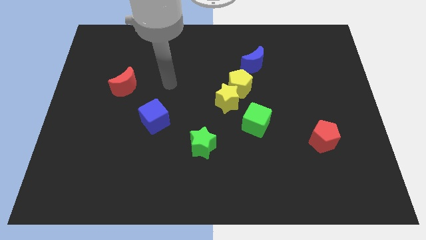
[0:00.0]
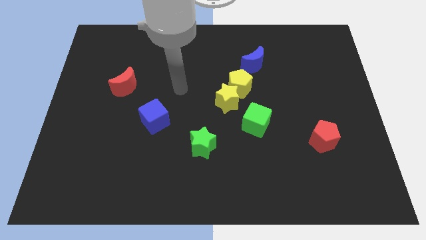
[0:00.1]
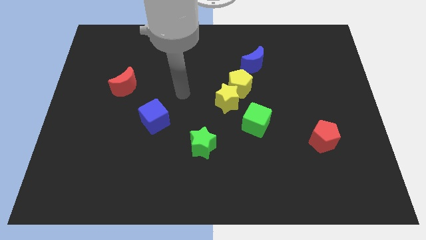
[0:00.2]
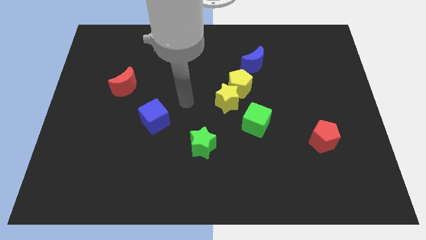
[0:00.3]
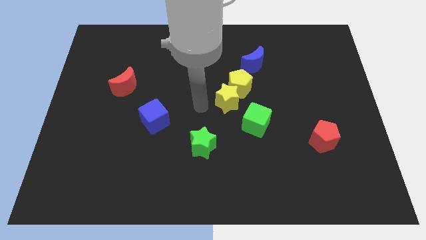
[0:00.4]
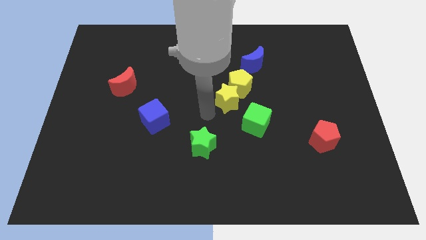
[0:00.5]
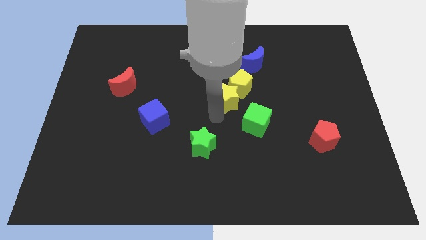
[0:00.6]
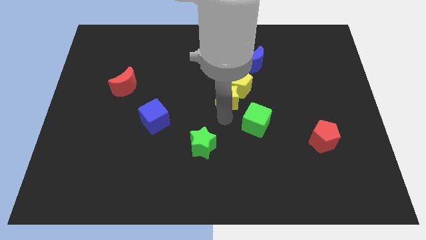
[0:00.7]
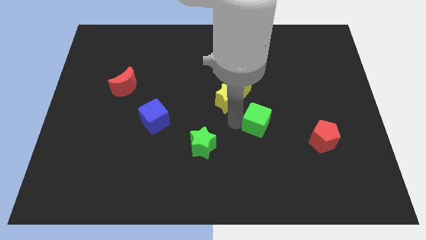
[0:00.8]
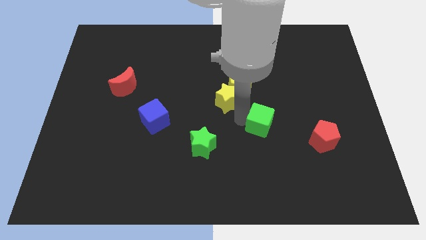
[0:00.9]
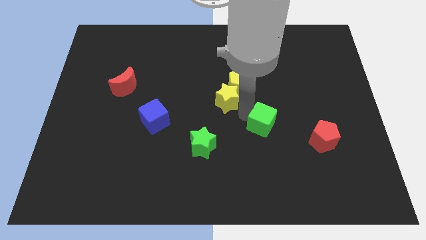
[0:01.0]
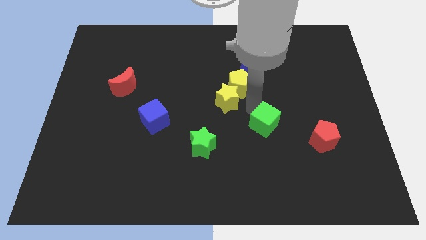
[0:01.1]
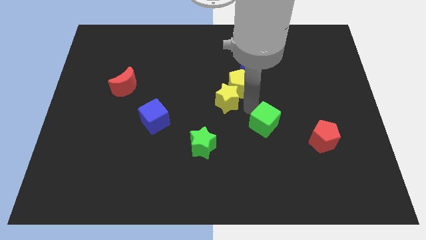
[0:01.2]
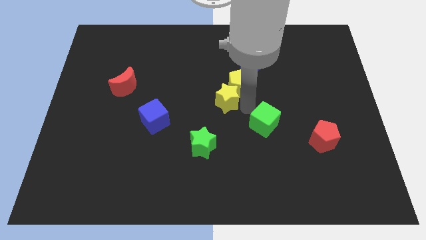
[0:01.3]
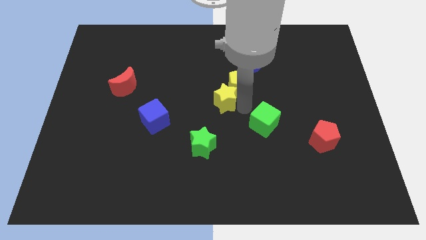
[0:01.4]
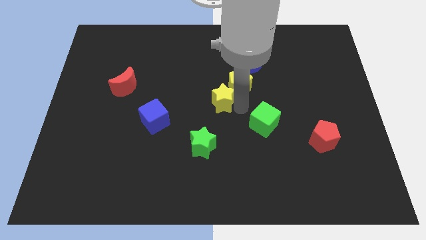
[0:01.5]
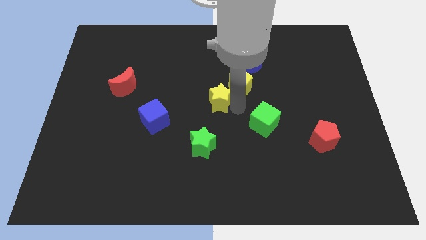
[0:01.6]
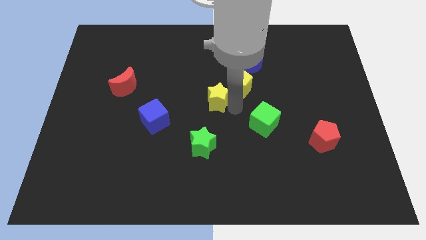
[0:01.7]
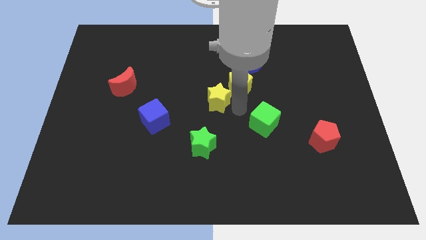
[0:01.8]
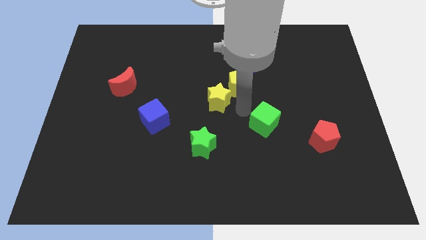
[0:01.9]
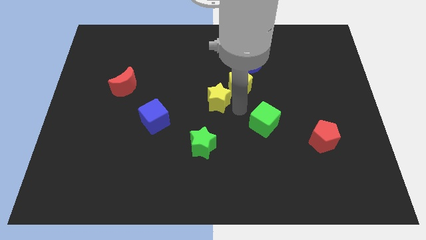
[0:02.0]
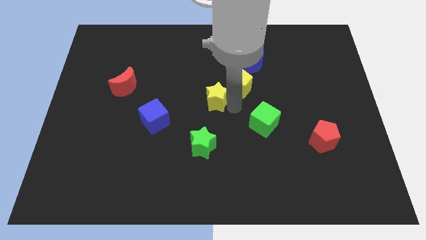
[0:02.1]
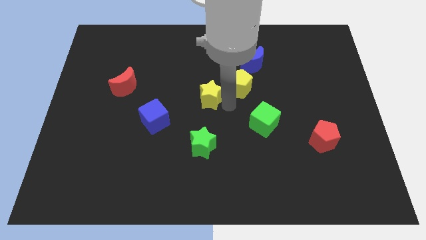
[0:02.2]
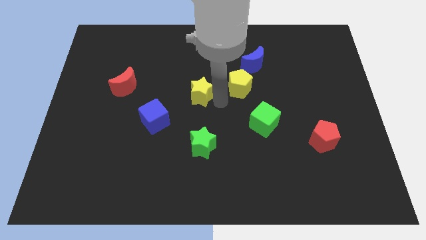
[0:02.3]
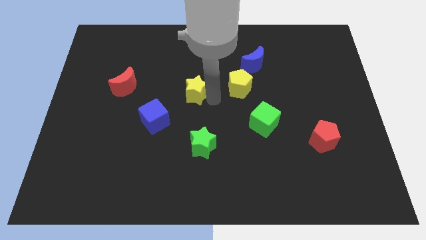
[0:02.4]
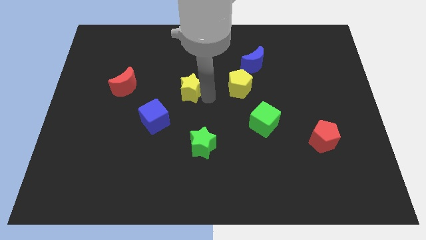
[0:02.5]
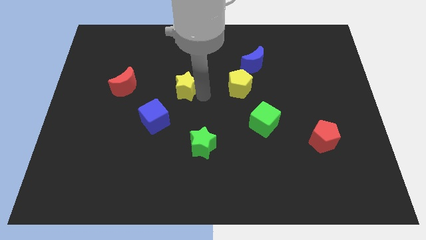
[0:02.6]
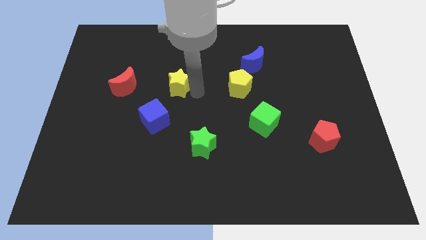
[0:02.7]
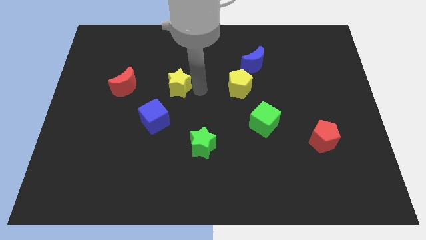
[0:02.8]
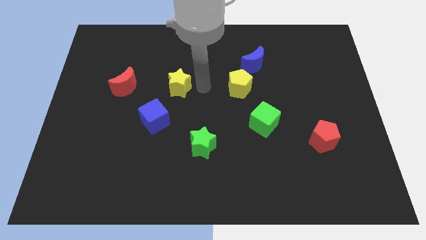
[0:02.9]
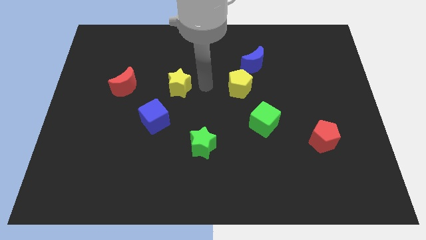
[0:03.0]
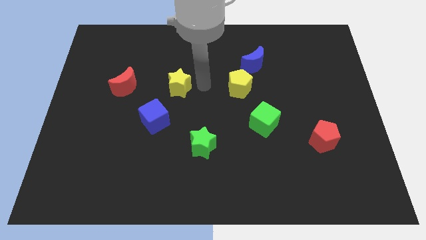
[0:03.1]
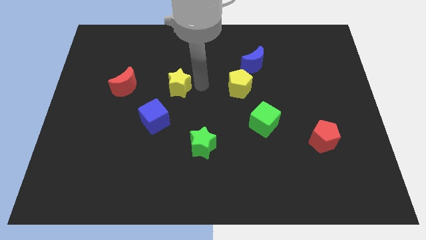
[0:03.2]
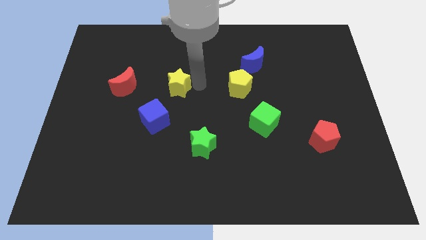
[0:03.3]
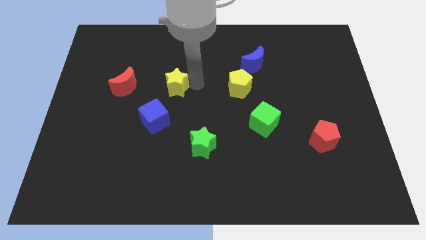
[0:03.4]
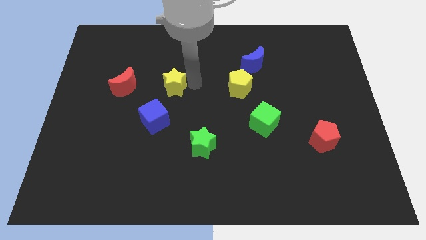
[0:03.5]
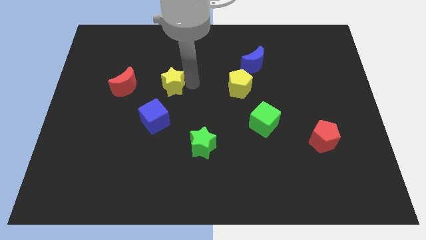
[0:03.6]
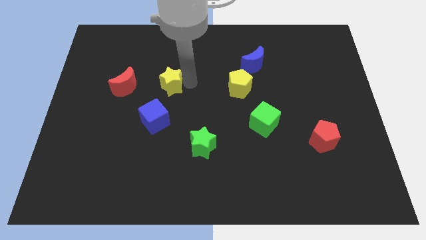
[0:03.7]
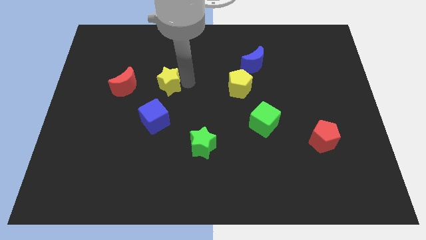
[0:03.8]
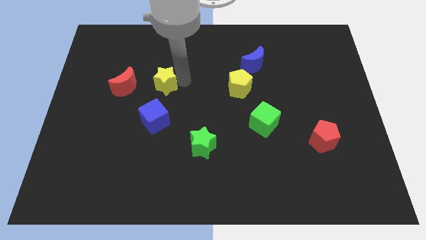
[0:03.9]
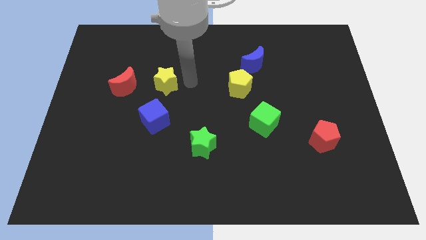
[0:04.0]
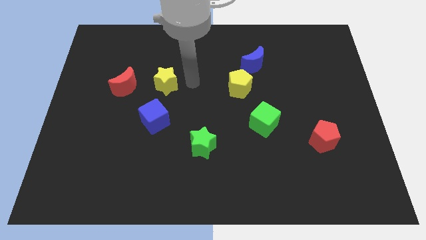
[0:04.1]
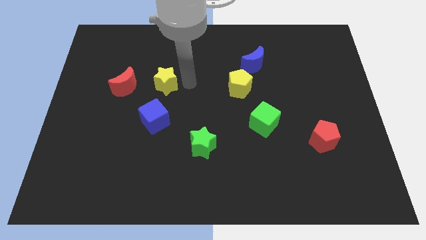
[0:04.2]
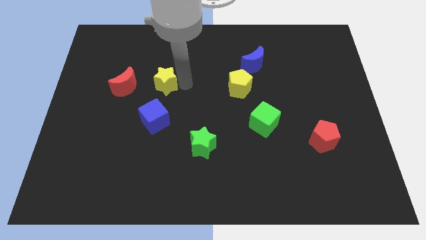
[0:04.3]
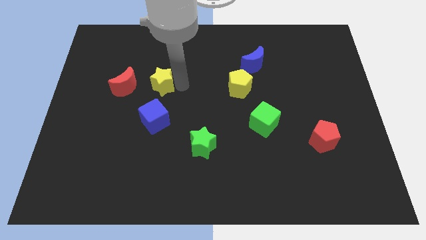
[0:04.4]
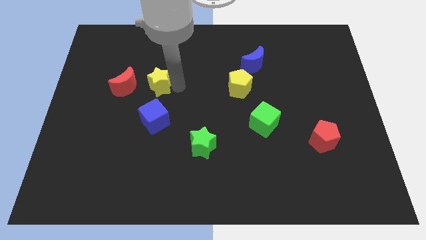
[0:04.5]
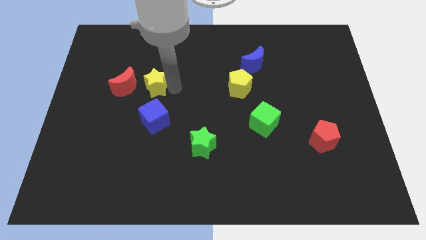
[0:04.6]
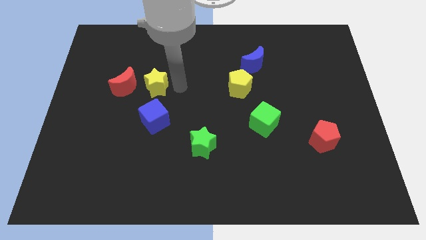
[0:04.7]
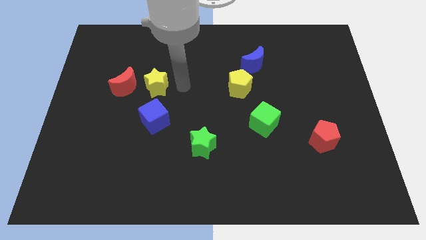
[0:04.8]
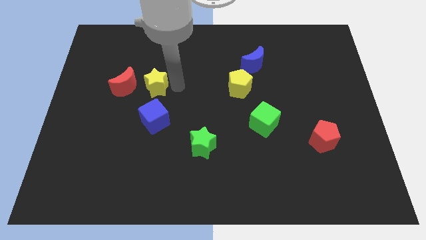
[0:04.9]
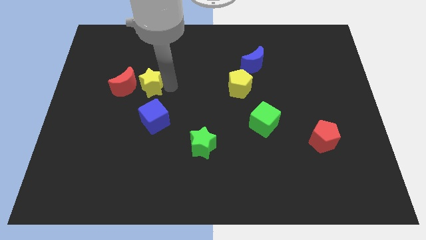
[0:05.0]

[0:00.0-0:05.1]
put the yellow star to the red moon

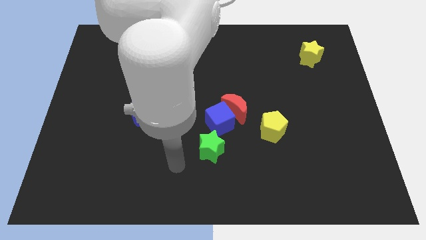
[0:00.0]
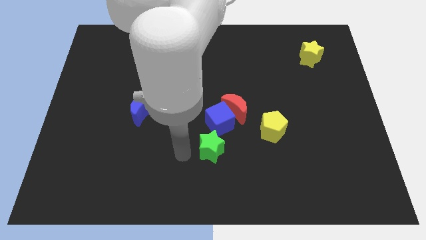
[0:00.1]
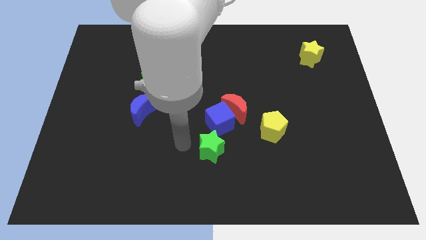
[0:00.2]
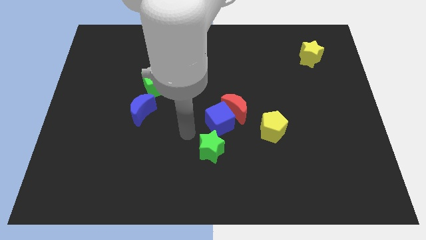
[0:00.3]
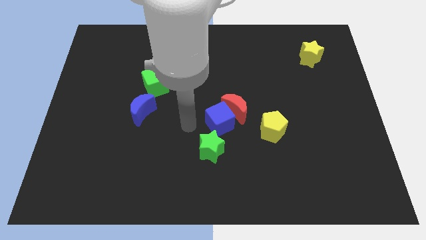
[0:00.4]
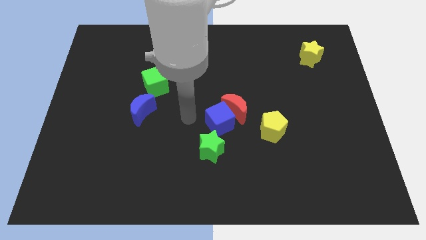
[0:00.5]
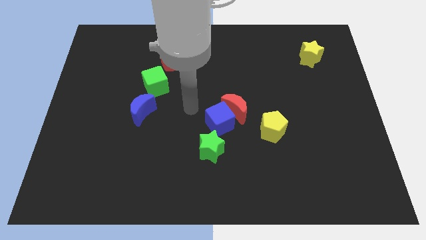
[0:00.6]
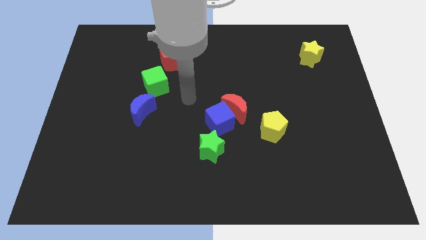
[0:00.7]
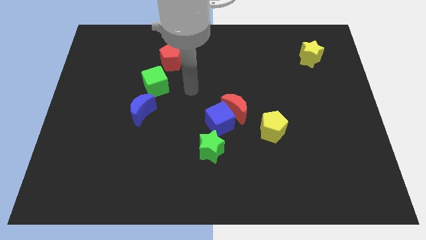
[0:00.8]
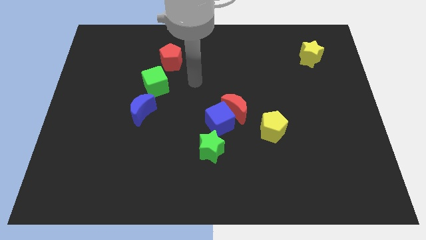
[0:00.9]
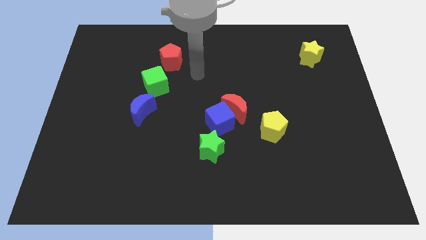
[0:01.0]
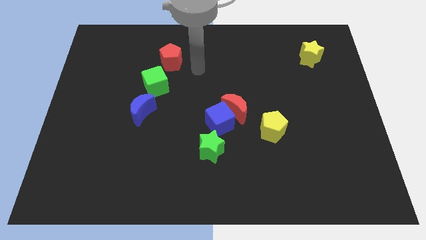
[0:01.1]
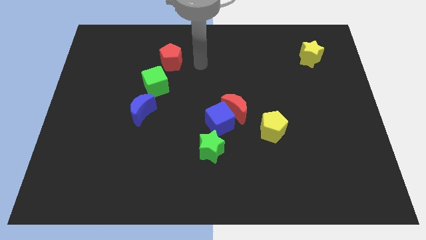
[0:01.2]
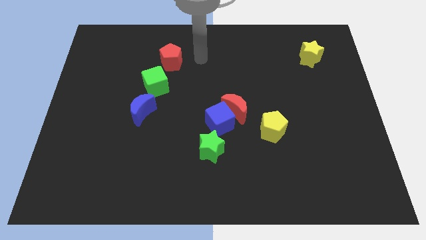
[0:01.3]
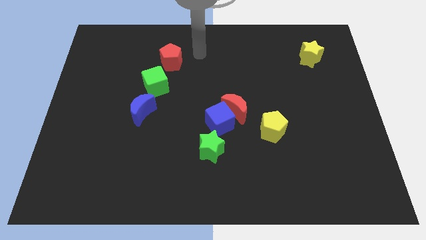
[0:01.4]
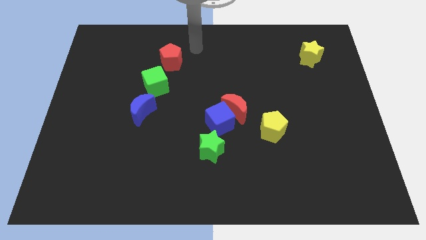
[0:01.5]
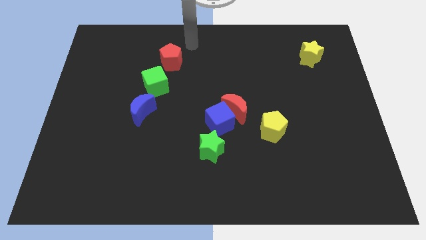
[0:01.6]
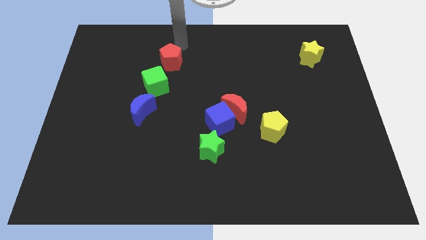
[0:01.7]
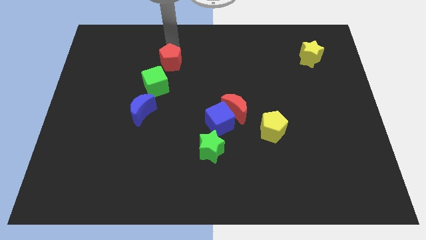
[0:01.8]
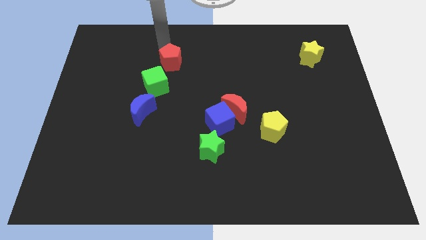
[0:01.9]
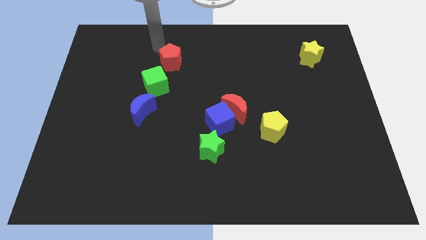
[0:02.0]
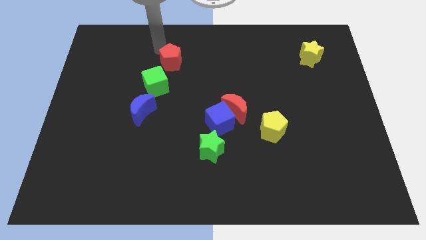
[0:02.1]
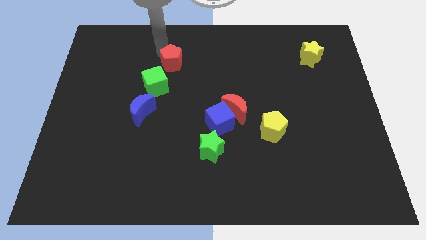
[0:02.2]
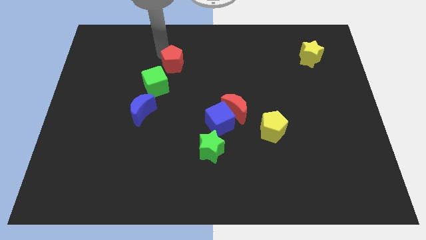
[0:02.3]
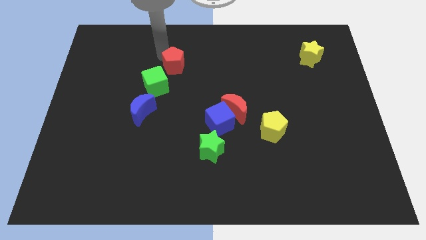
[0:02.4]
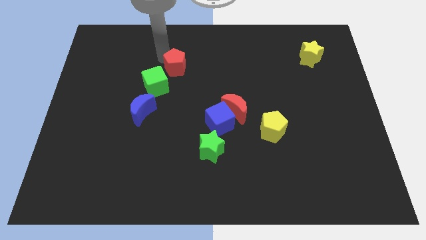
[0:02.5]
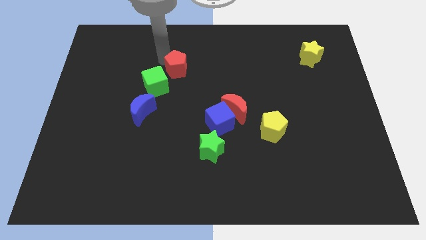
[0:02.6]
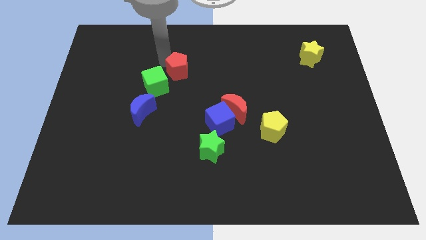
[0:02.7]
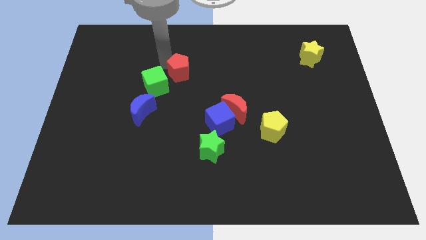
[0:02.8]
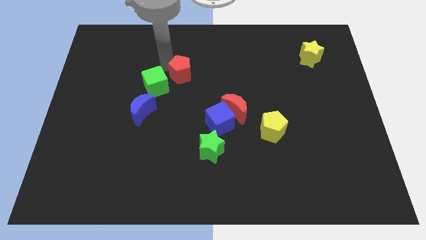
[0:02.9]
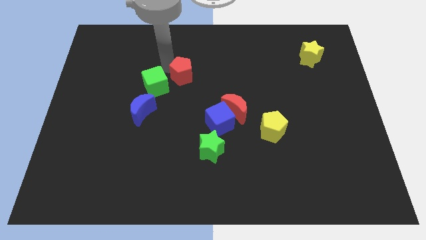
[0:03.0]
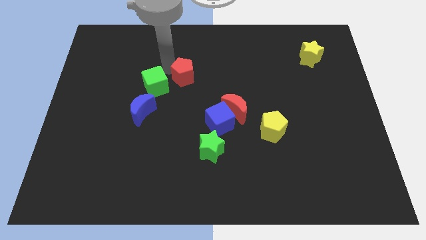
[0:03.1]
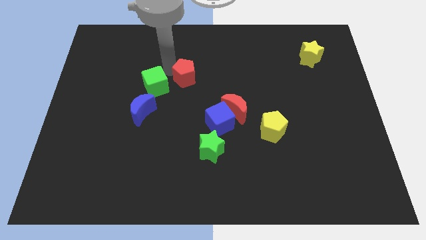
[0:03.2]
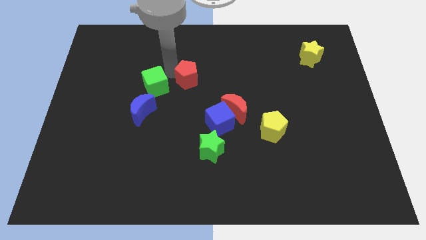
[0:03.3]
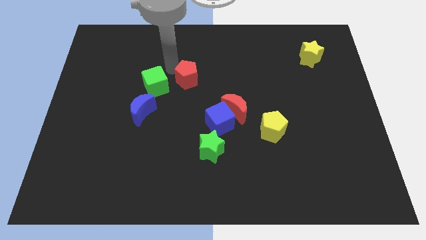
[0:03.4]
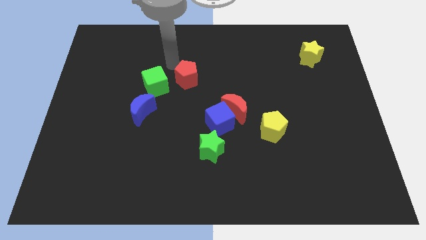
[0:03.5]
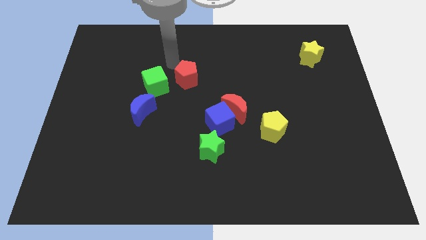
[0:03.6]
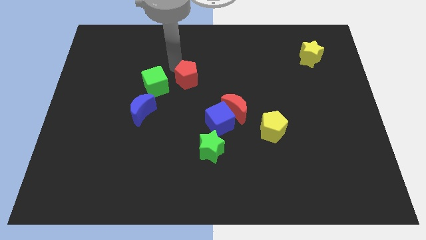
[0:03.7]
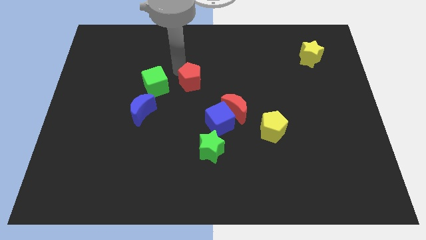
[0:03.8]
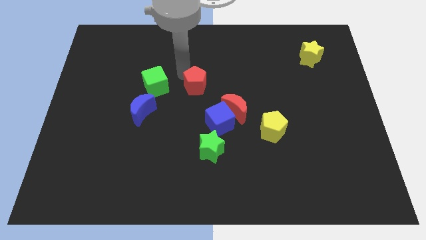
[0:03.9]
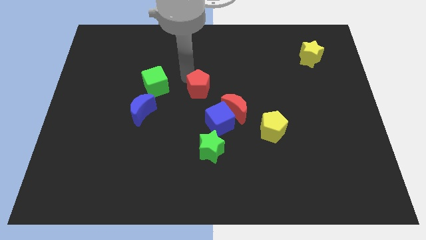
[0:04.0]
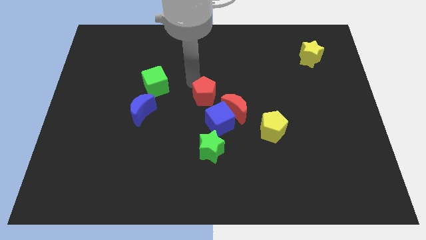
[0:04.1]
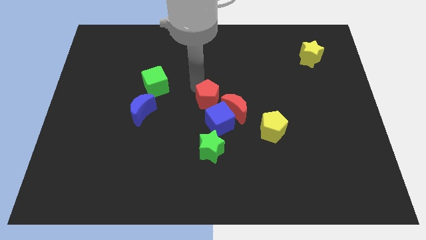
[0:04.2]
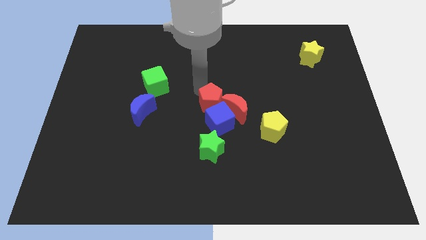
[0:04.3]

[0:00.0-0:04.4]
move the red pentagon towards the blue cube
